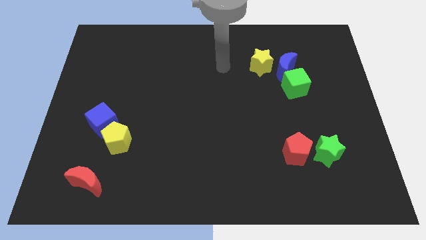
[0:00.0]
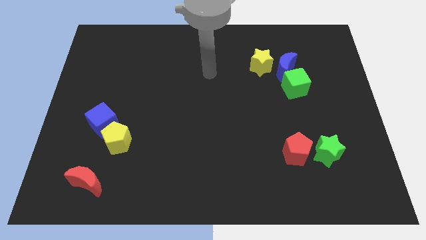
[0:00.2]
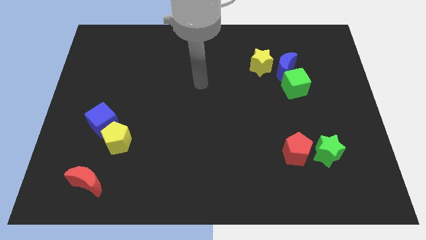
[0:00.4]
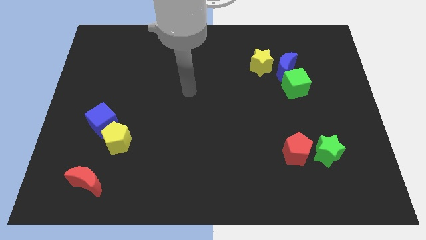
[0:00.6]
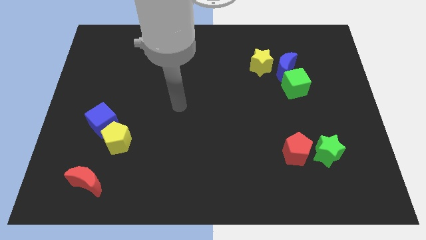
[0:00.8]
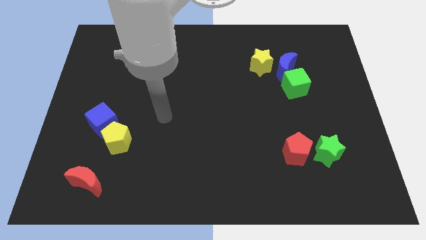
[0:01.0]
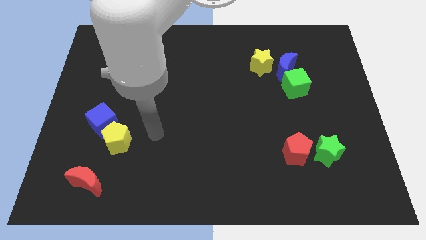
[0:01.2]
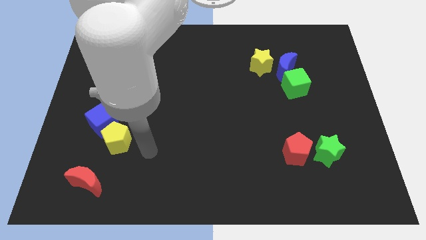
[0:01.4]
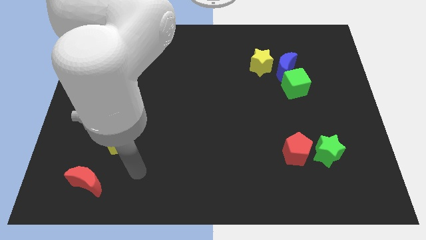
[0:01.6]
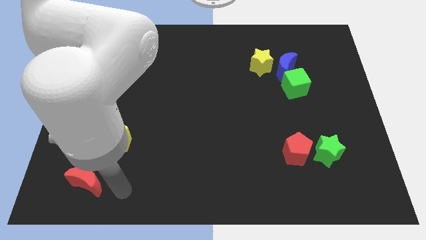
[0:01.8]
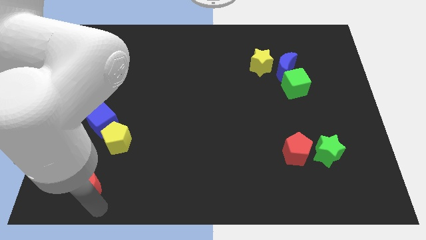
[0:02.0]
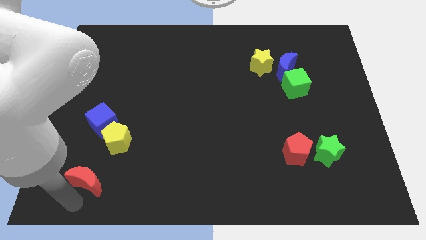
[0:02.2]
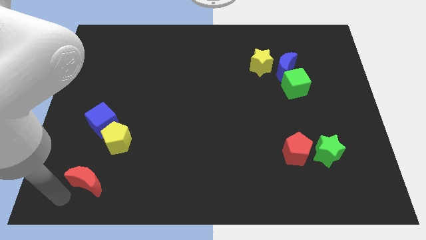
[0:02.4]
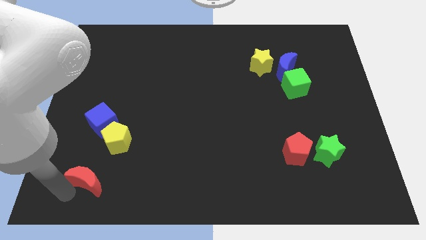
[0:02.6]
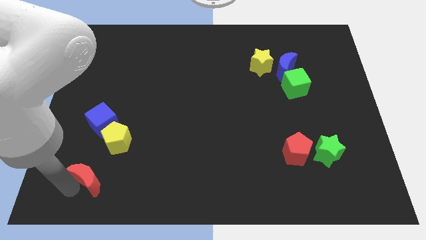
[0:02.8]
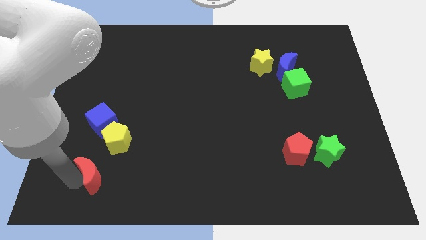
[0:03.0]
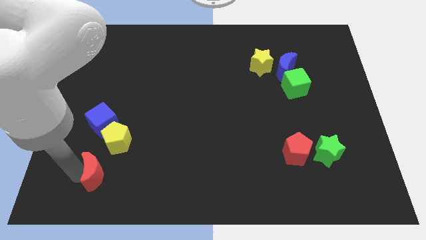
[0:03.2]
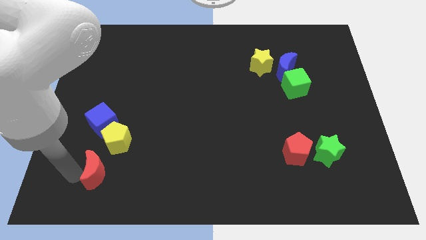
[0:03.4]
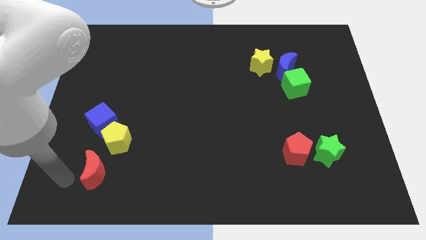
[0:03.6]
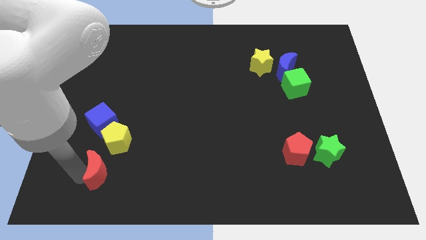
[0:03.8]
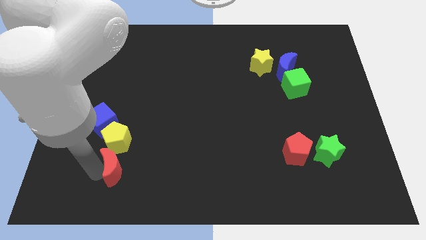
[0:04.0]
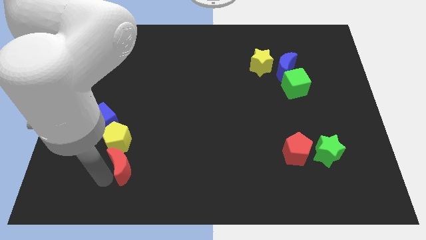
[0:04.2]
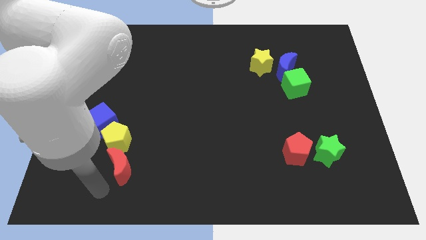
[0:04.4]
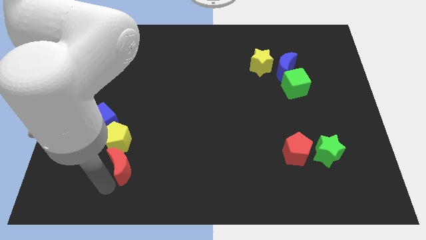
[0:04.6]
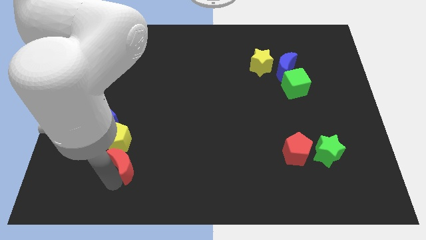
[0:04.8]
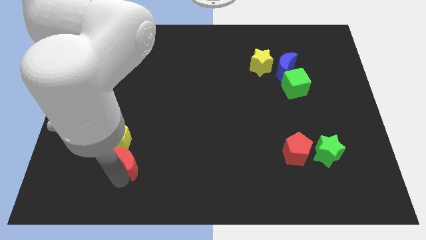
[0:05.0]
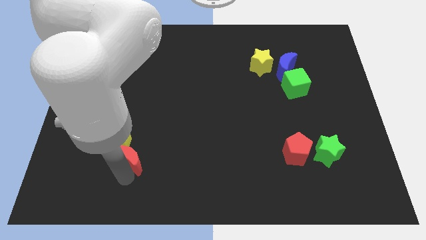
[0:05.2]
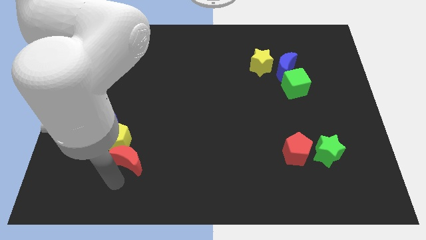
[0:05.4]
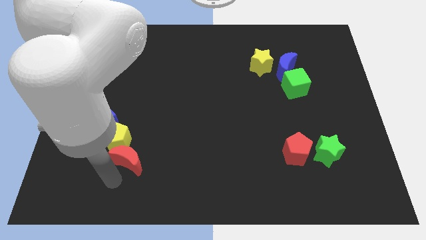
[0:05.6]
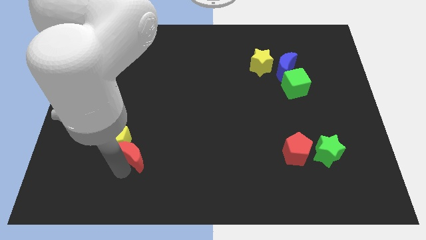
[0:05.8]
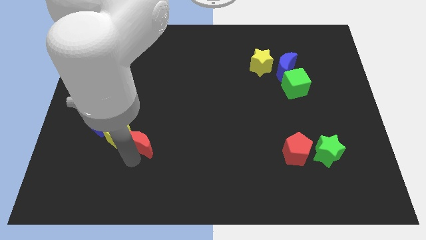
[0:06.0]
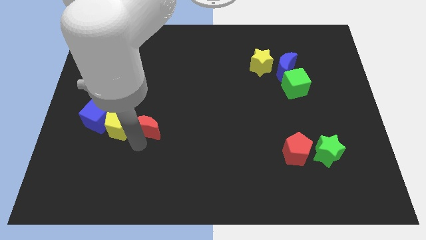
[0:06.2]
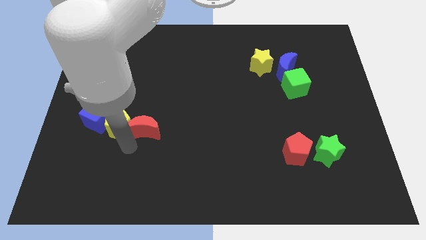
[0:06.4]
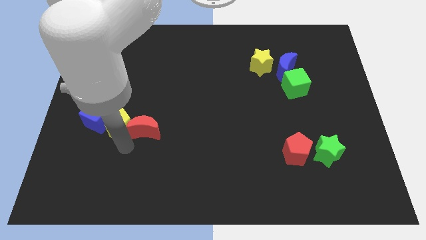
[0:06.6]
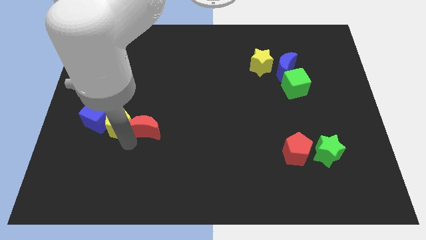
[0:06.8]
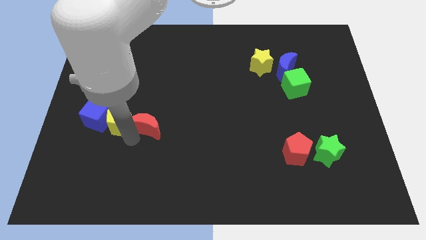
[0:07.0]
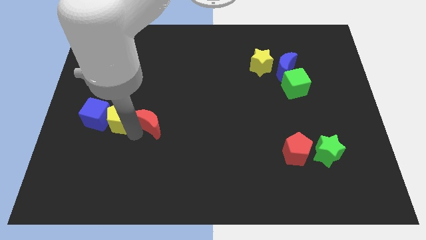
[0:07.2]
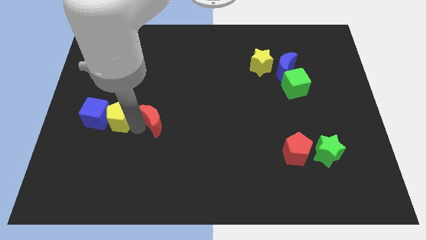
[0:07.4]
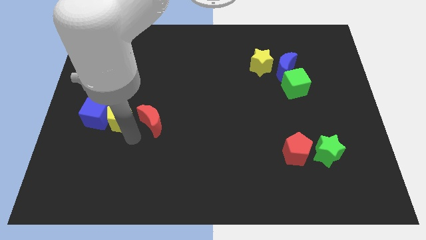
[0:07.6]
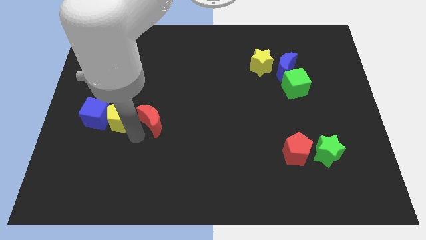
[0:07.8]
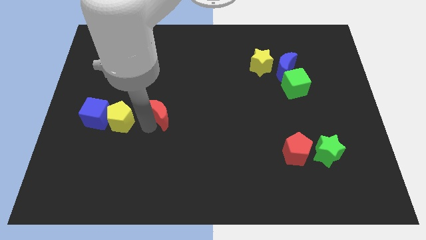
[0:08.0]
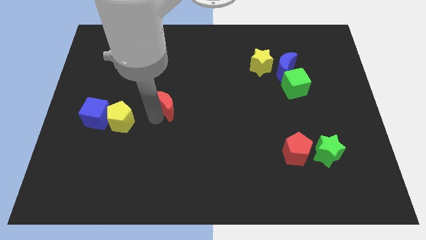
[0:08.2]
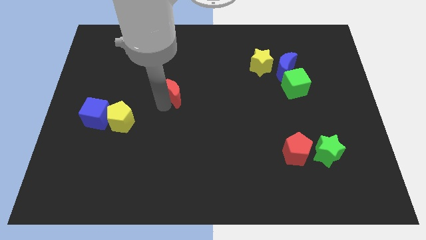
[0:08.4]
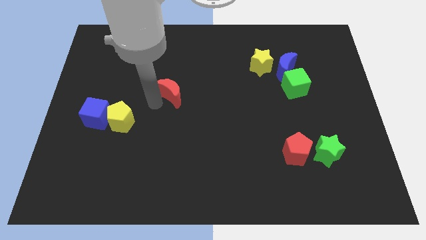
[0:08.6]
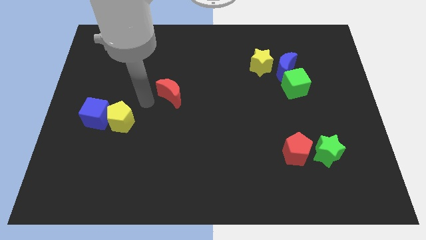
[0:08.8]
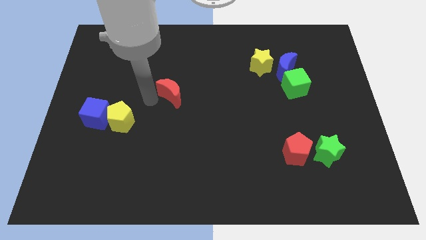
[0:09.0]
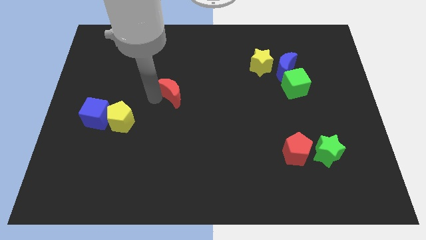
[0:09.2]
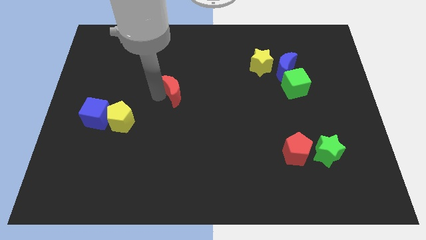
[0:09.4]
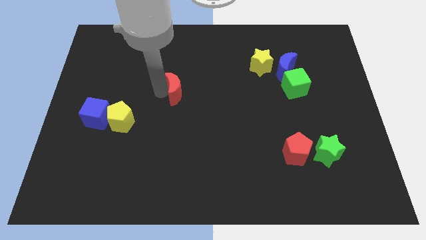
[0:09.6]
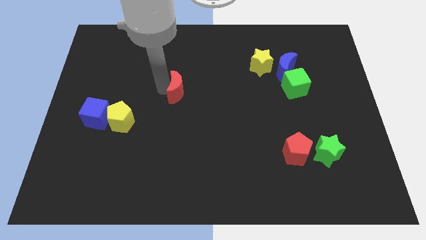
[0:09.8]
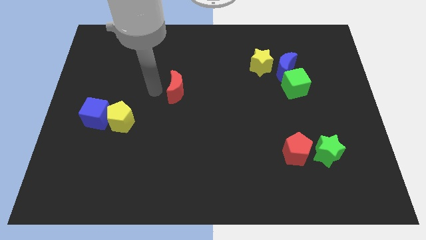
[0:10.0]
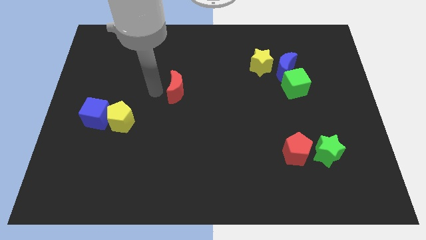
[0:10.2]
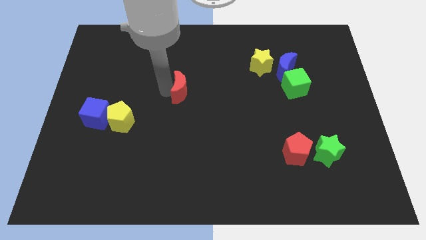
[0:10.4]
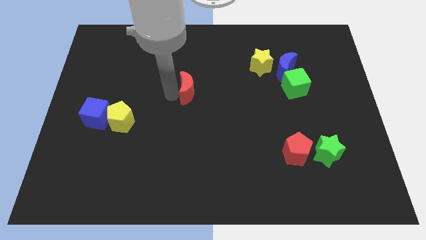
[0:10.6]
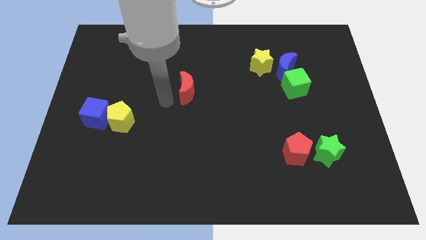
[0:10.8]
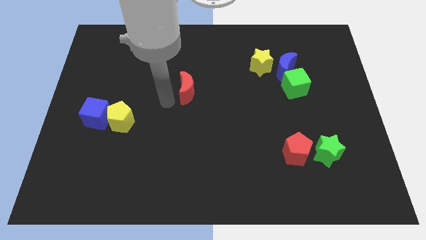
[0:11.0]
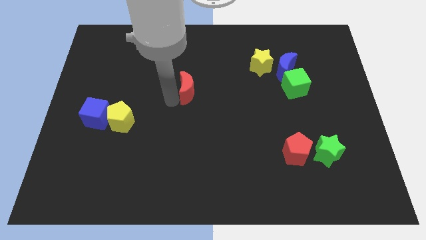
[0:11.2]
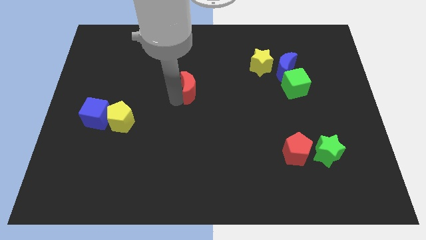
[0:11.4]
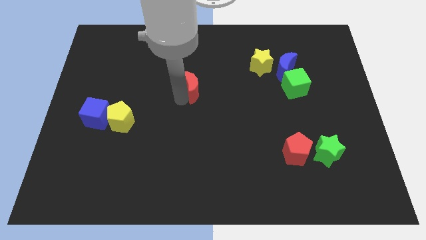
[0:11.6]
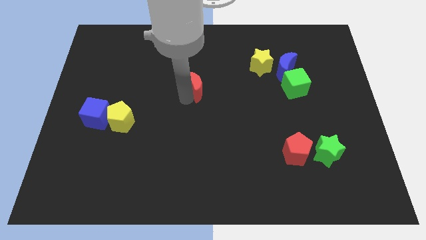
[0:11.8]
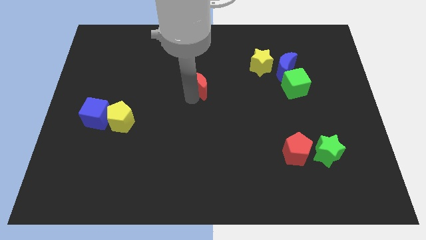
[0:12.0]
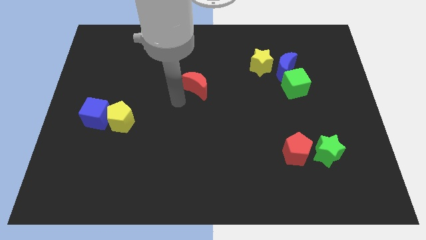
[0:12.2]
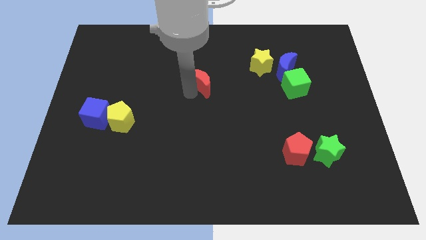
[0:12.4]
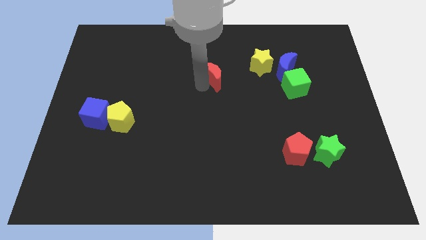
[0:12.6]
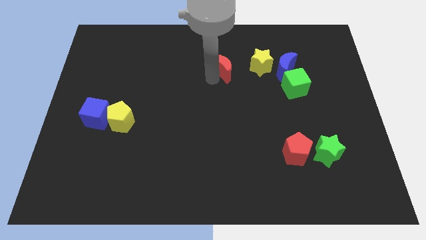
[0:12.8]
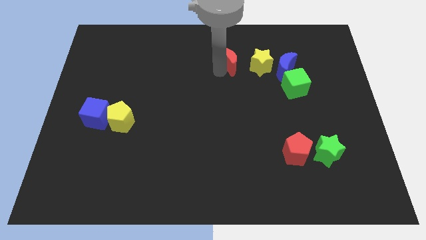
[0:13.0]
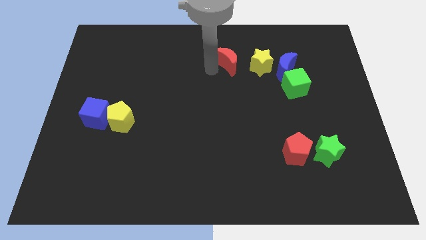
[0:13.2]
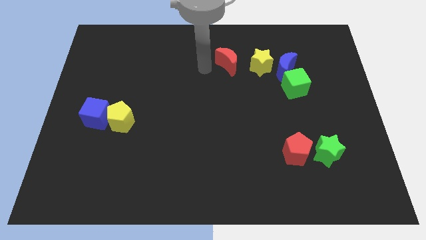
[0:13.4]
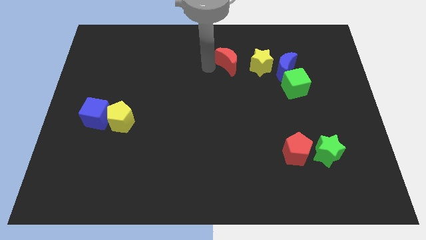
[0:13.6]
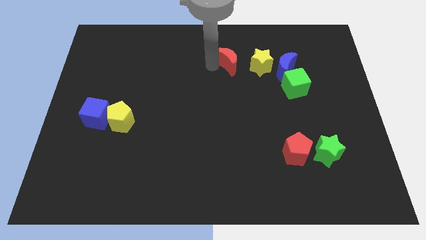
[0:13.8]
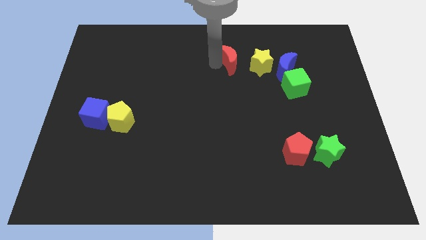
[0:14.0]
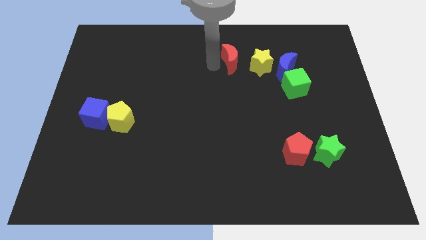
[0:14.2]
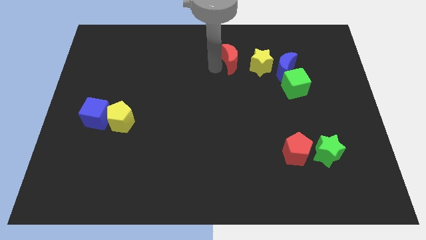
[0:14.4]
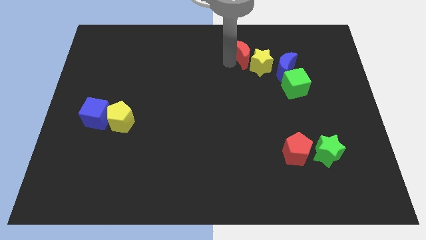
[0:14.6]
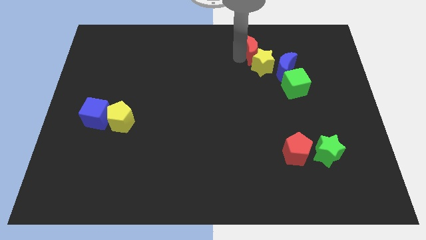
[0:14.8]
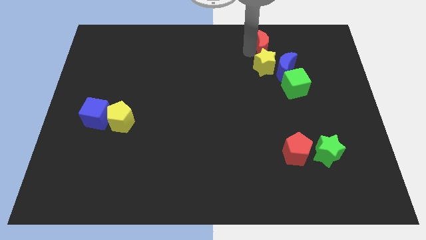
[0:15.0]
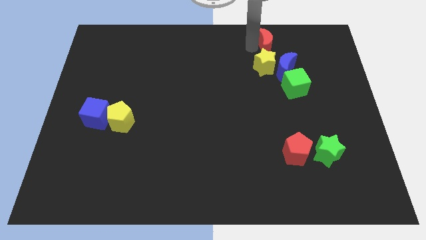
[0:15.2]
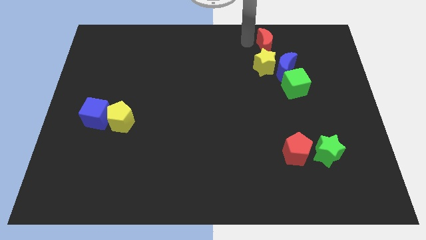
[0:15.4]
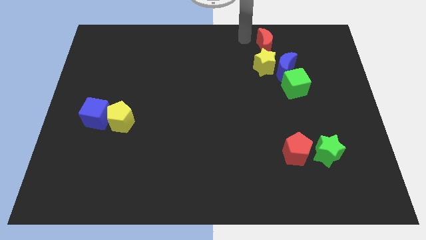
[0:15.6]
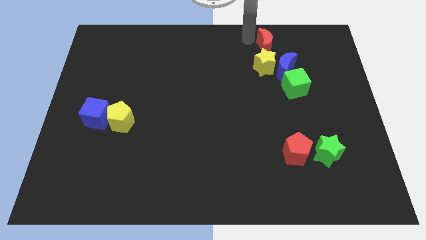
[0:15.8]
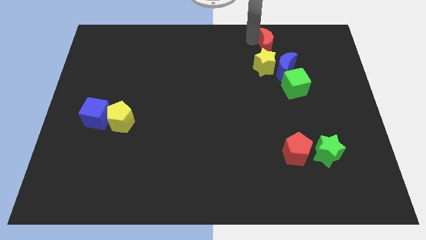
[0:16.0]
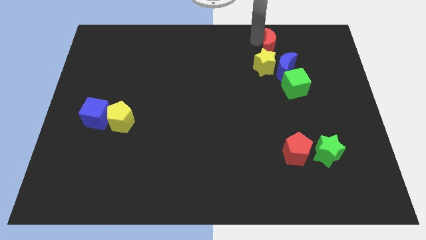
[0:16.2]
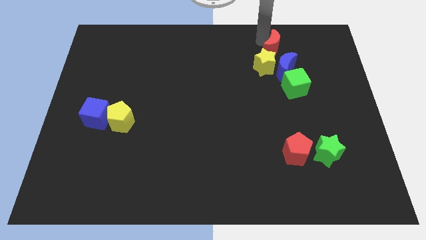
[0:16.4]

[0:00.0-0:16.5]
put the red moon above the green cube
